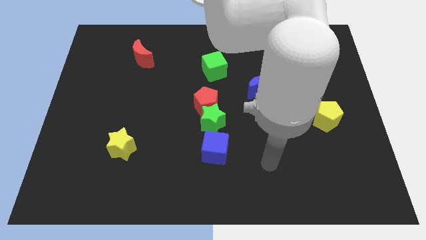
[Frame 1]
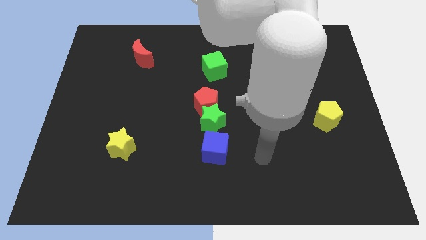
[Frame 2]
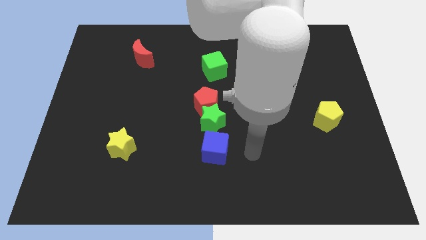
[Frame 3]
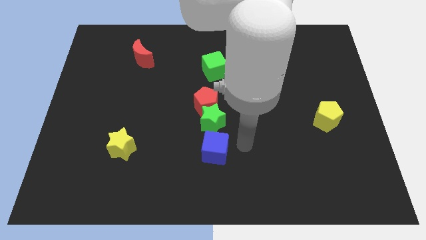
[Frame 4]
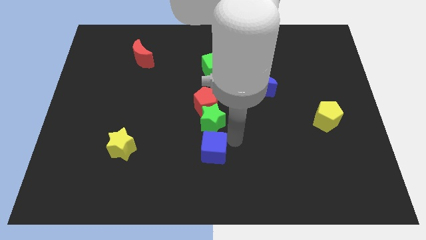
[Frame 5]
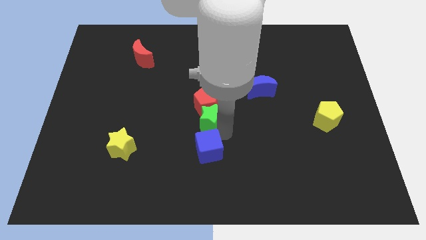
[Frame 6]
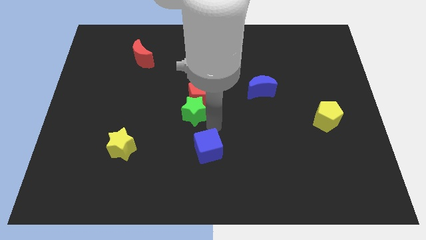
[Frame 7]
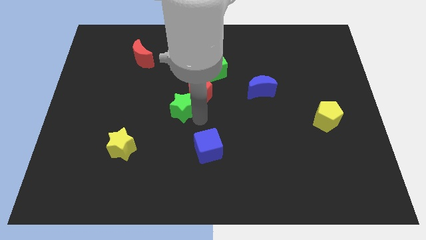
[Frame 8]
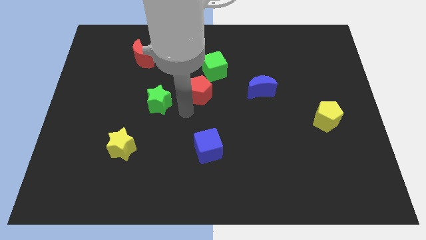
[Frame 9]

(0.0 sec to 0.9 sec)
separate the red pentagon from the green star

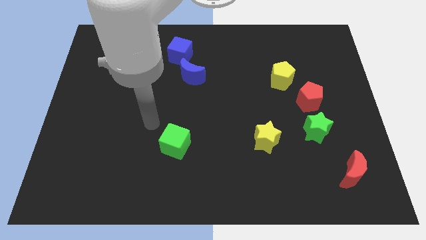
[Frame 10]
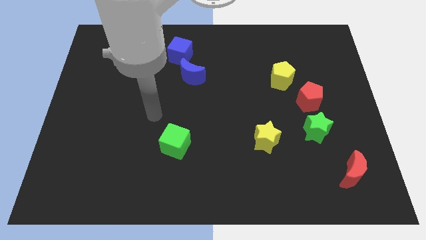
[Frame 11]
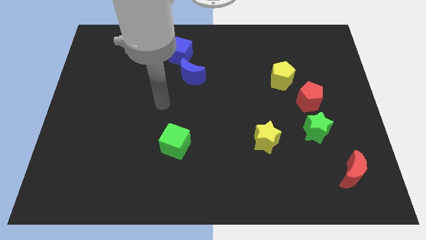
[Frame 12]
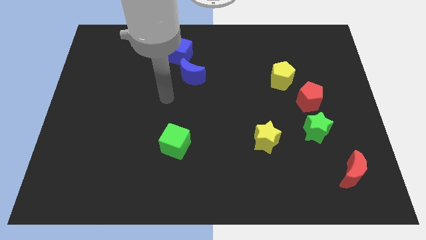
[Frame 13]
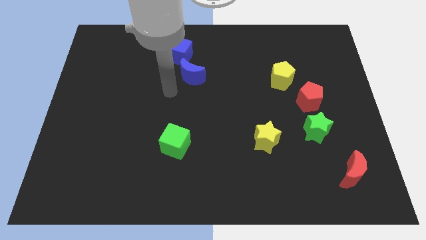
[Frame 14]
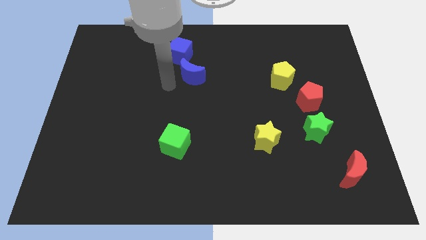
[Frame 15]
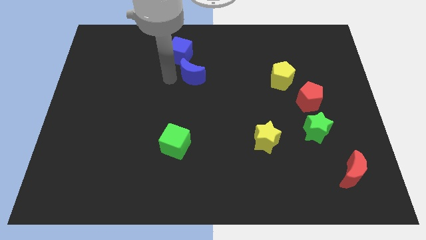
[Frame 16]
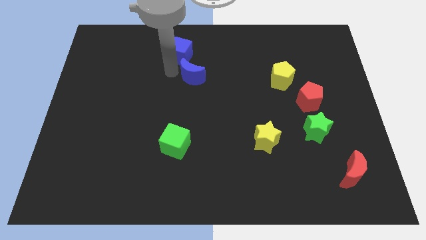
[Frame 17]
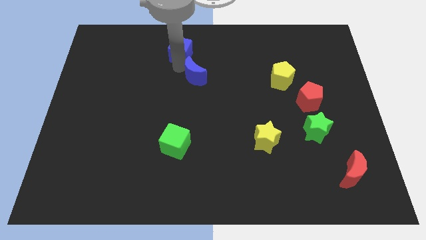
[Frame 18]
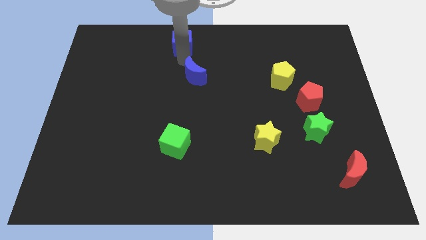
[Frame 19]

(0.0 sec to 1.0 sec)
pull the blue moon apart from the blue cube

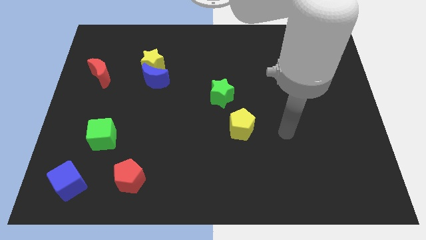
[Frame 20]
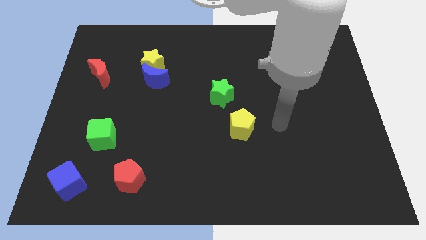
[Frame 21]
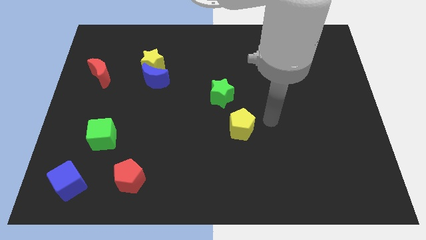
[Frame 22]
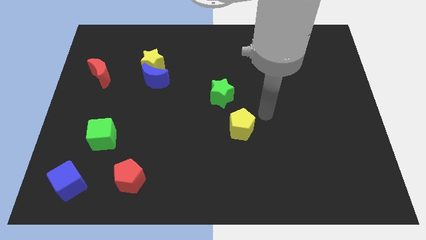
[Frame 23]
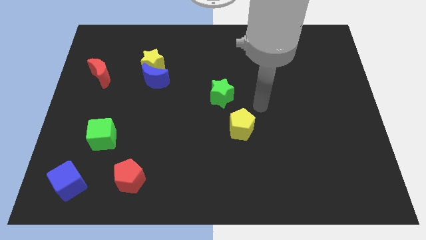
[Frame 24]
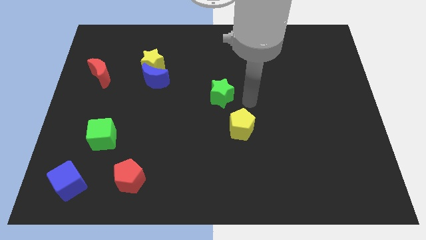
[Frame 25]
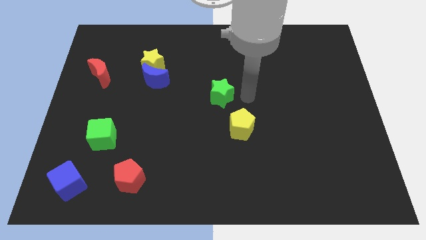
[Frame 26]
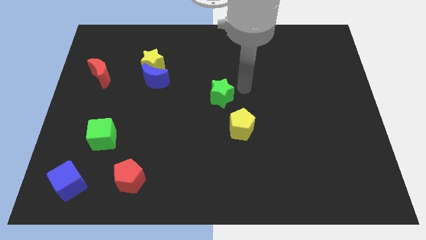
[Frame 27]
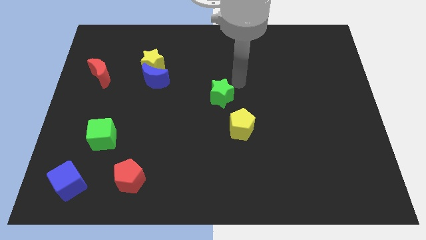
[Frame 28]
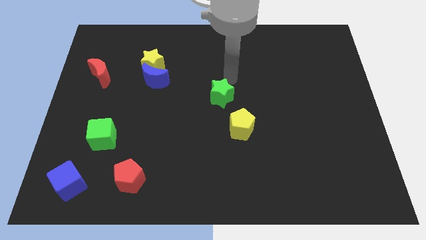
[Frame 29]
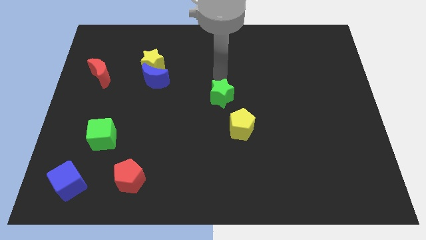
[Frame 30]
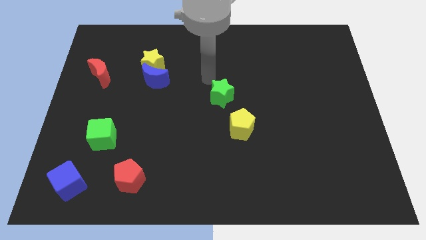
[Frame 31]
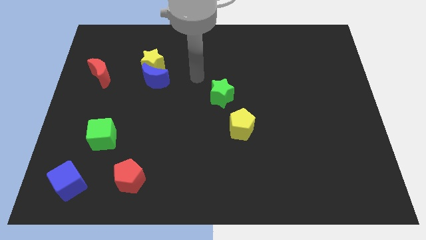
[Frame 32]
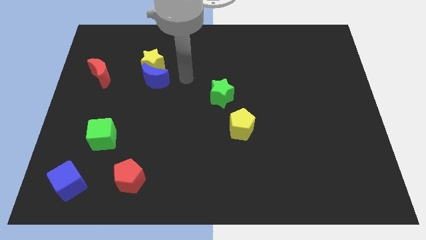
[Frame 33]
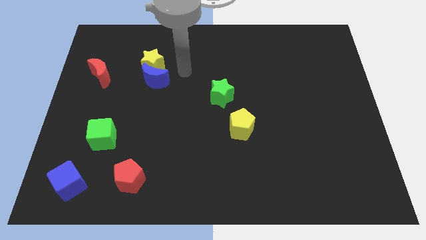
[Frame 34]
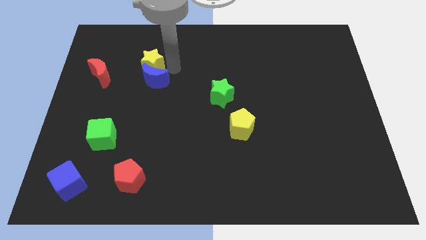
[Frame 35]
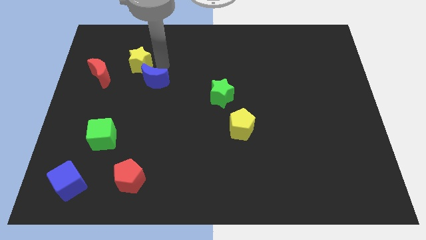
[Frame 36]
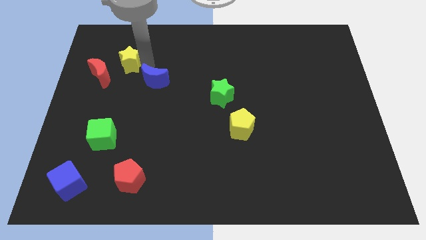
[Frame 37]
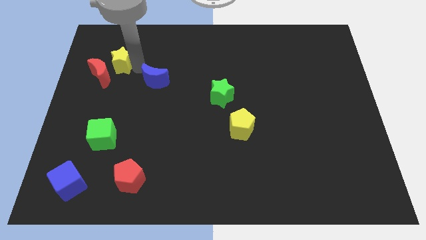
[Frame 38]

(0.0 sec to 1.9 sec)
pull the blue moon apart from the yellow star

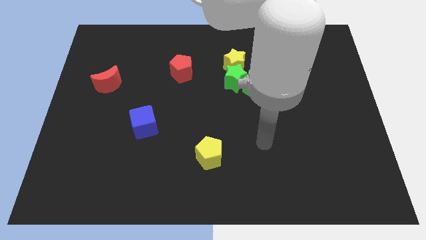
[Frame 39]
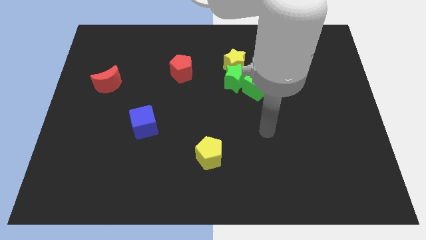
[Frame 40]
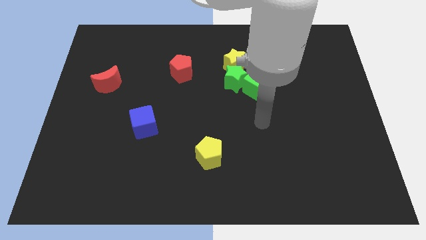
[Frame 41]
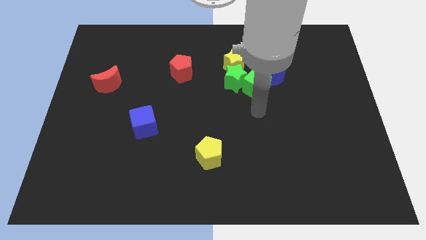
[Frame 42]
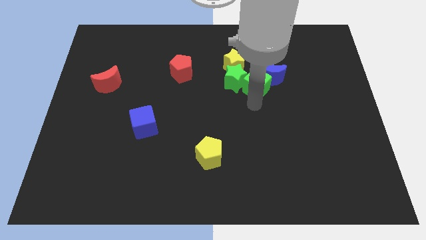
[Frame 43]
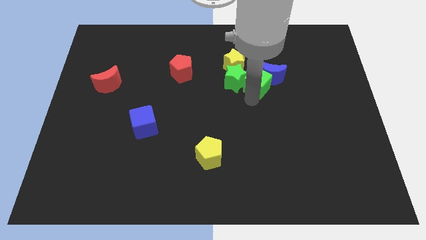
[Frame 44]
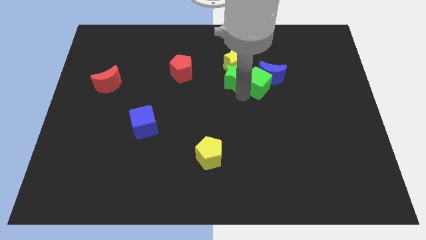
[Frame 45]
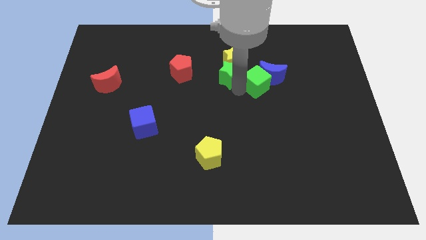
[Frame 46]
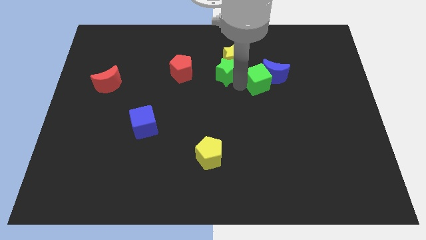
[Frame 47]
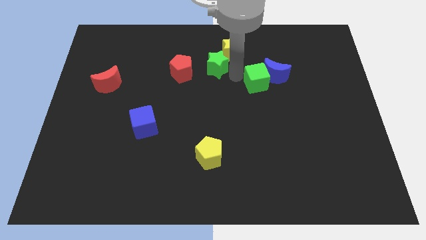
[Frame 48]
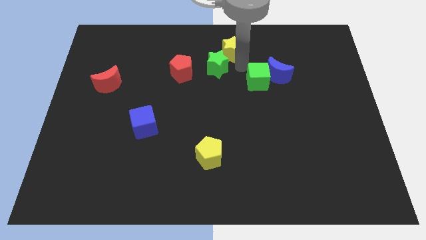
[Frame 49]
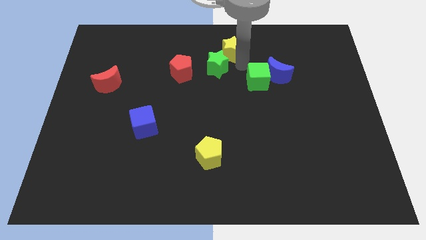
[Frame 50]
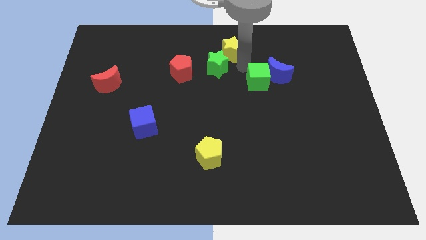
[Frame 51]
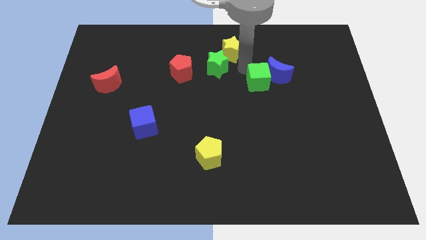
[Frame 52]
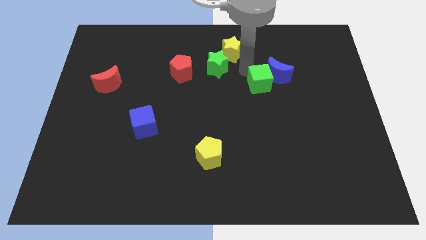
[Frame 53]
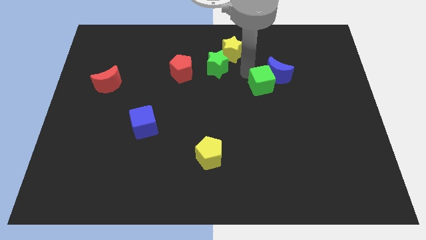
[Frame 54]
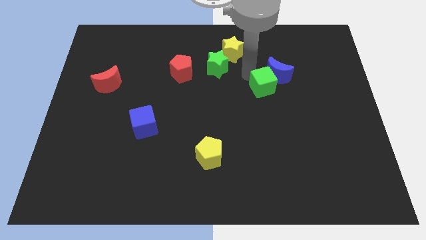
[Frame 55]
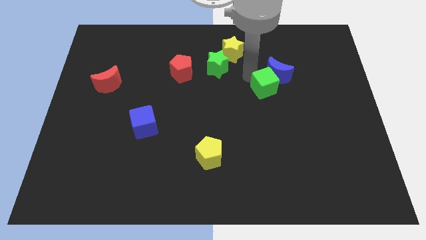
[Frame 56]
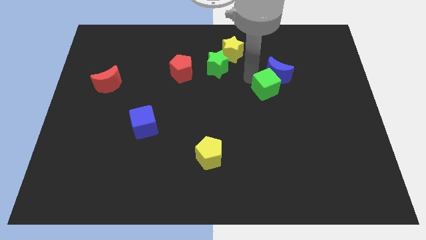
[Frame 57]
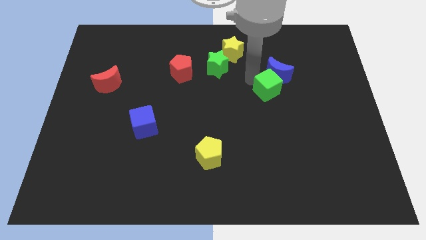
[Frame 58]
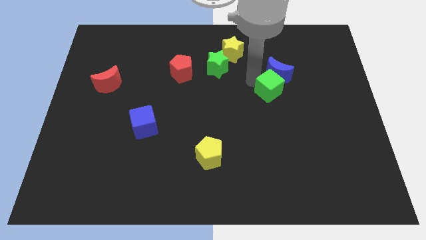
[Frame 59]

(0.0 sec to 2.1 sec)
separate the green cube from the blue moon, green star, and yellow star

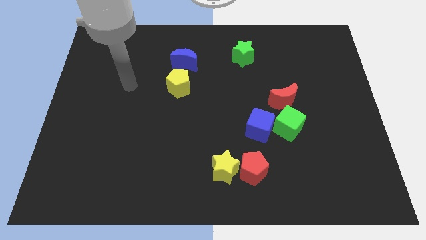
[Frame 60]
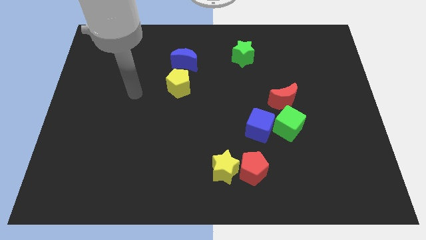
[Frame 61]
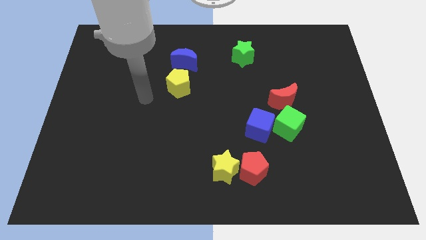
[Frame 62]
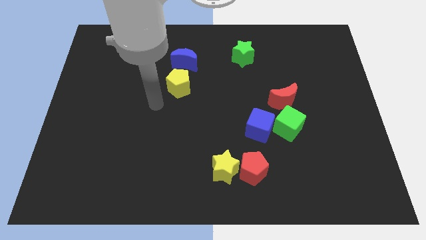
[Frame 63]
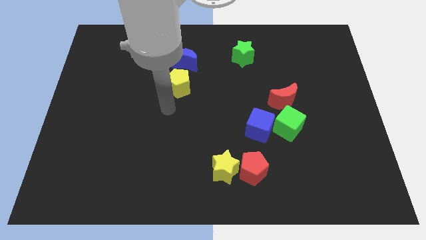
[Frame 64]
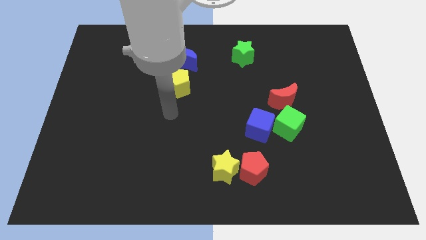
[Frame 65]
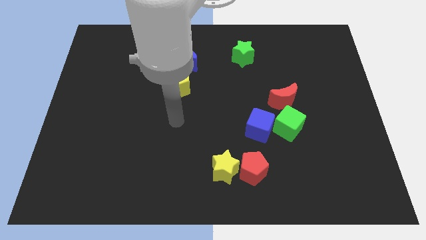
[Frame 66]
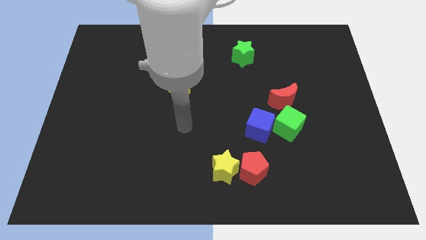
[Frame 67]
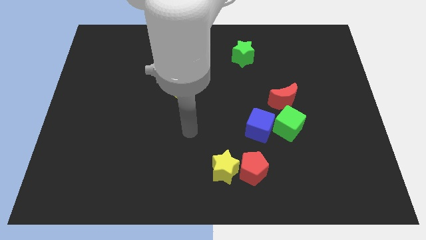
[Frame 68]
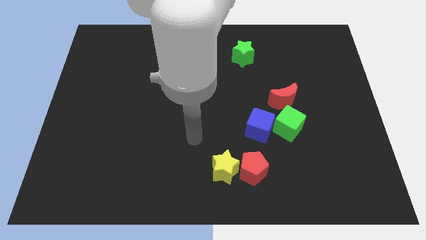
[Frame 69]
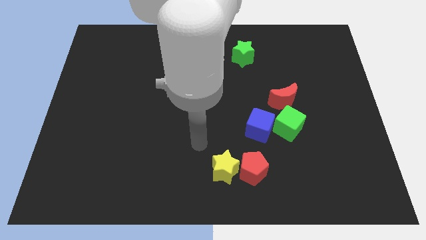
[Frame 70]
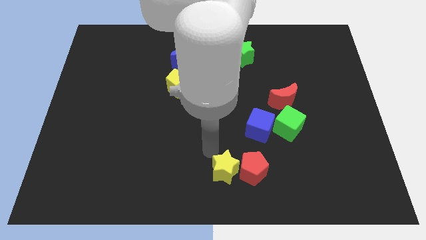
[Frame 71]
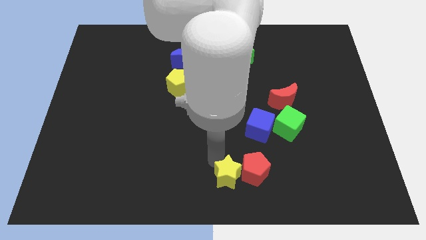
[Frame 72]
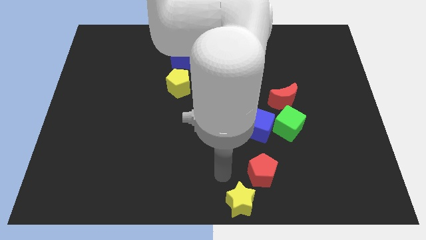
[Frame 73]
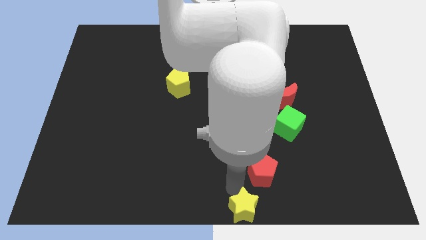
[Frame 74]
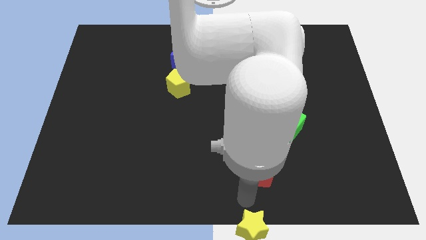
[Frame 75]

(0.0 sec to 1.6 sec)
move the red pentagon away from the yellow star

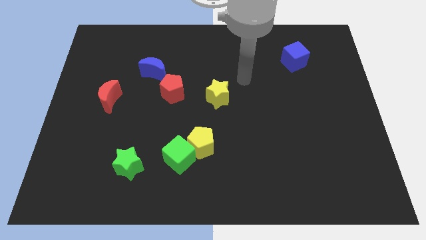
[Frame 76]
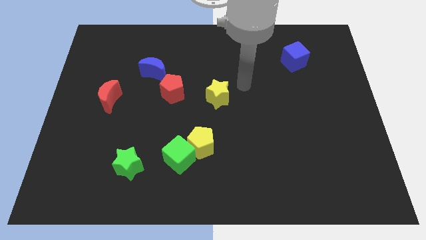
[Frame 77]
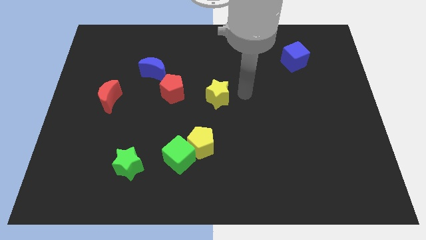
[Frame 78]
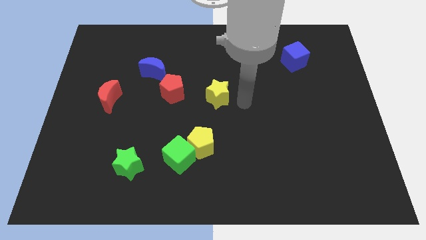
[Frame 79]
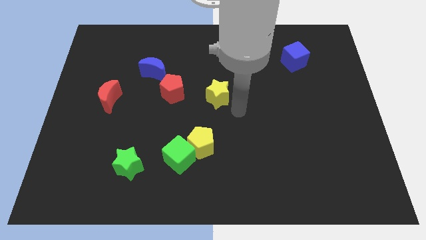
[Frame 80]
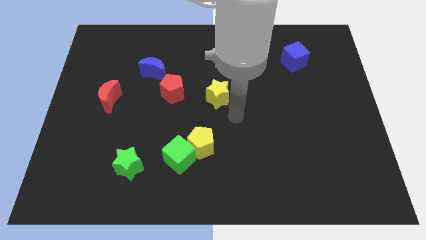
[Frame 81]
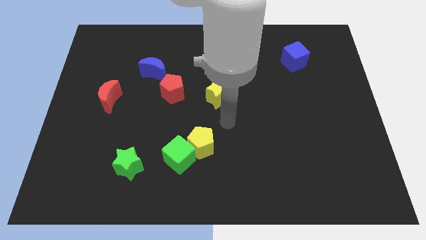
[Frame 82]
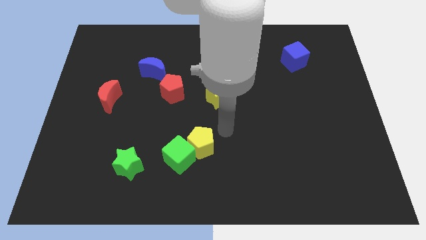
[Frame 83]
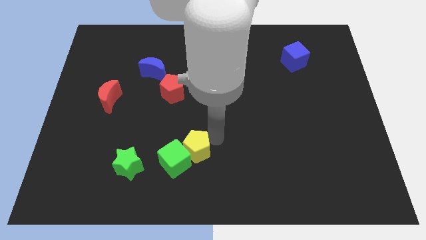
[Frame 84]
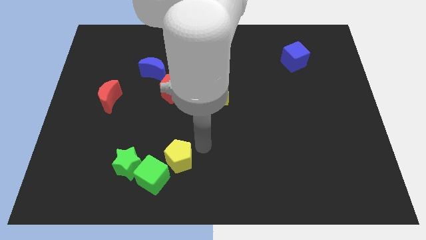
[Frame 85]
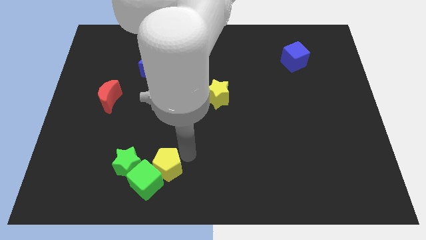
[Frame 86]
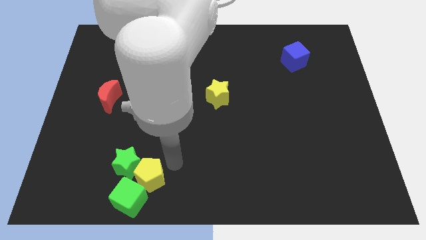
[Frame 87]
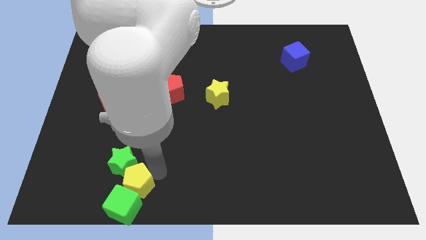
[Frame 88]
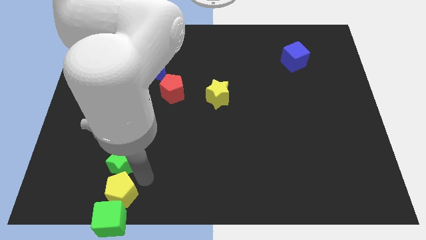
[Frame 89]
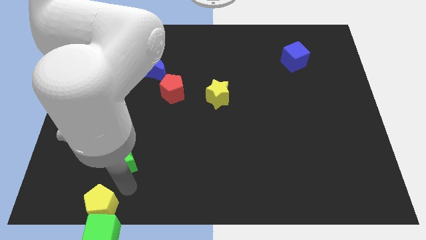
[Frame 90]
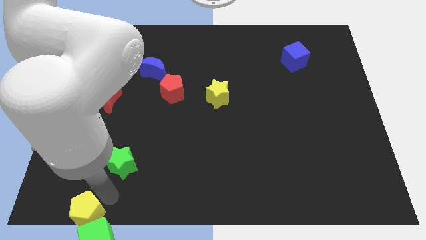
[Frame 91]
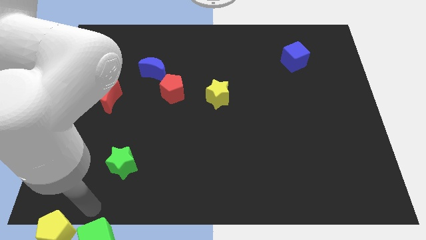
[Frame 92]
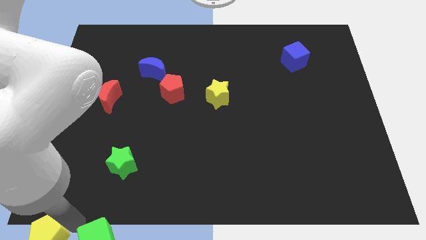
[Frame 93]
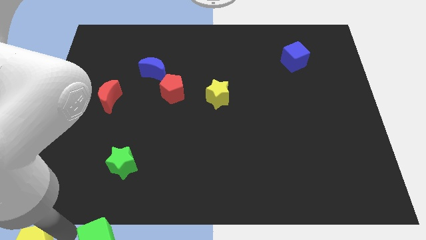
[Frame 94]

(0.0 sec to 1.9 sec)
separate the green cube from the yellow pentagon
